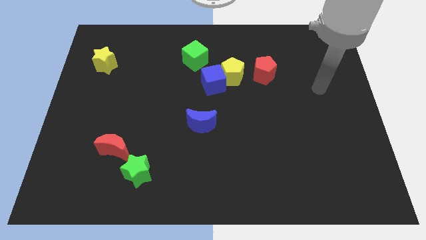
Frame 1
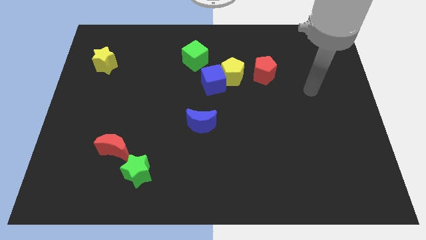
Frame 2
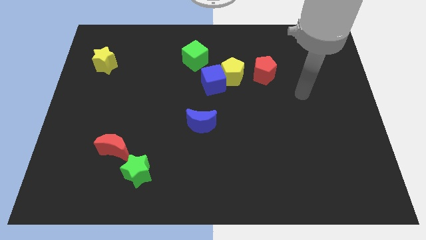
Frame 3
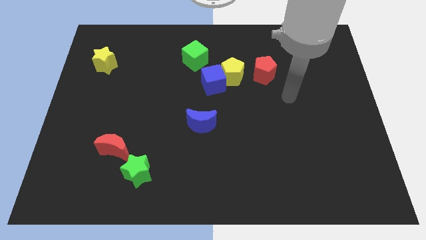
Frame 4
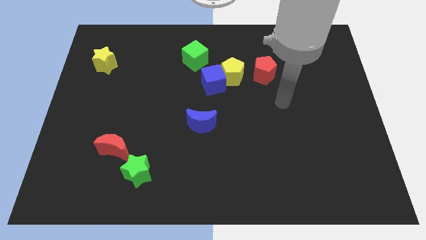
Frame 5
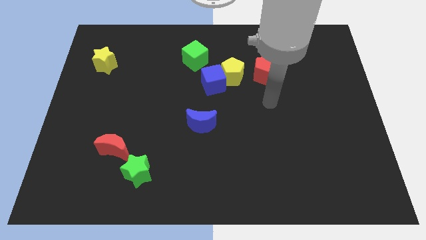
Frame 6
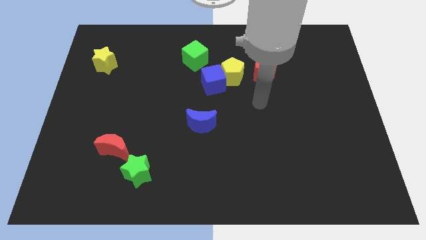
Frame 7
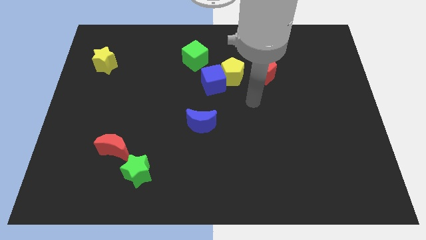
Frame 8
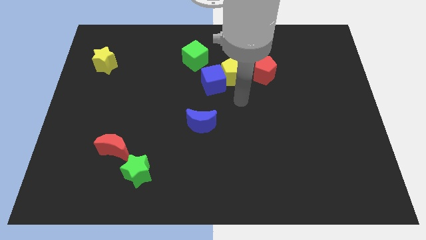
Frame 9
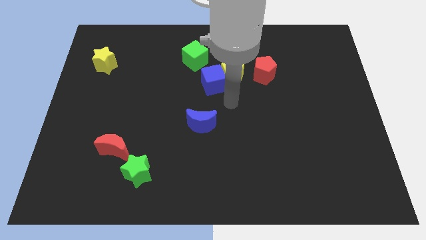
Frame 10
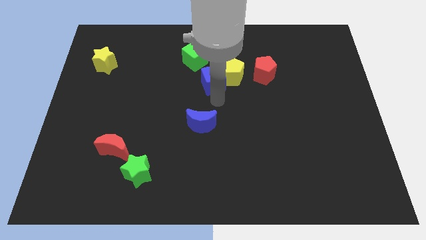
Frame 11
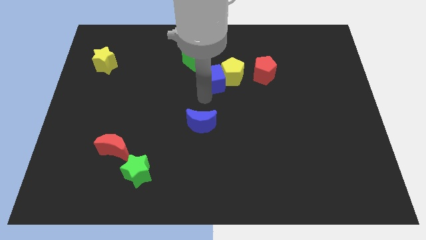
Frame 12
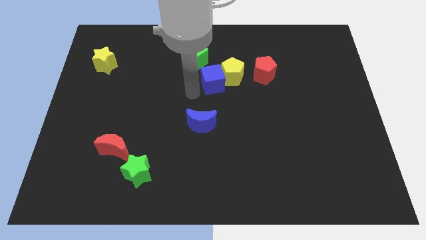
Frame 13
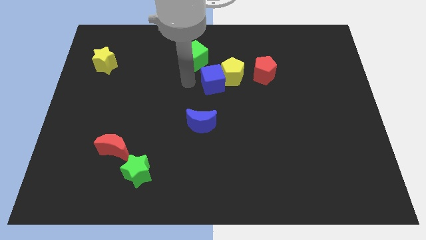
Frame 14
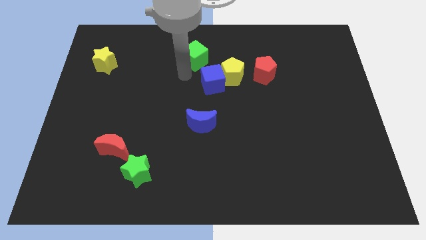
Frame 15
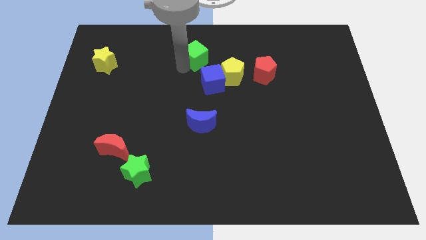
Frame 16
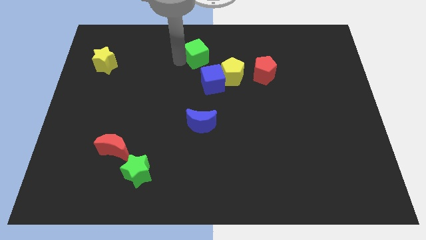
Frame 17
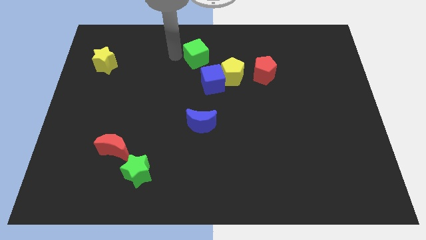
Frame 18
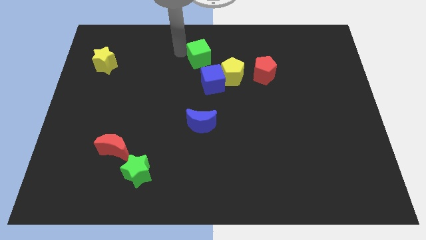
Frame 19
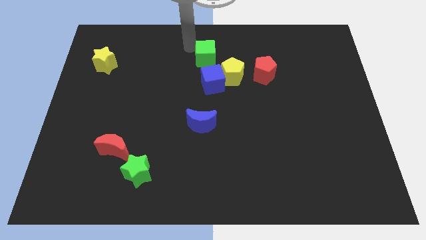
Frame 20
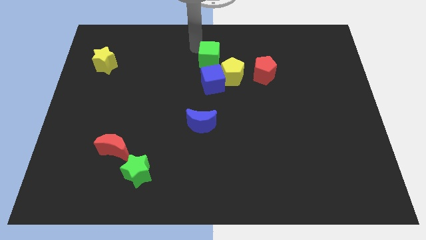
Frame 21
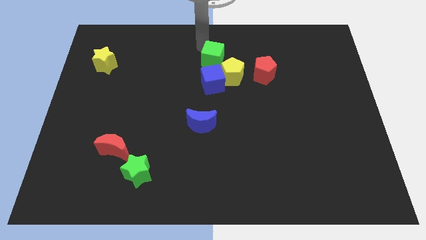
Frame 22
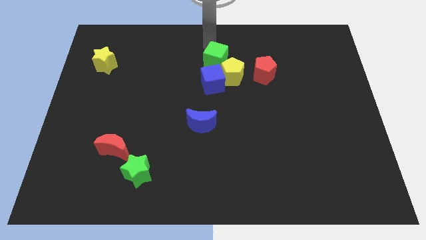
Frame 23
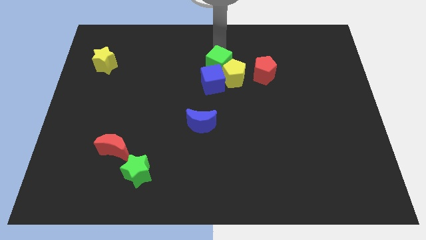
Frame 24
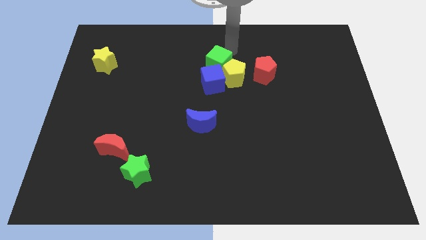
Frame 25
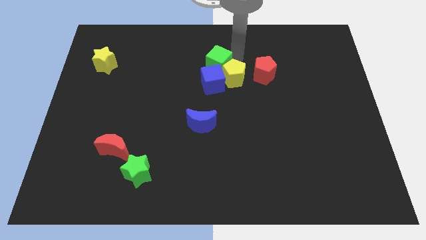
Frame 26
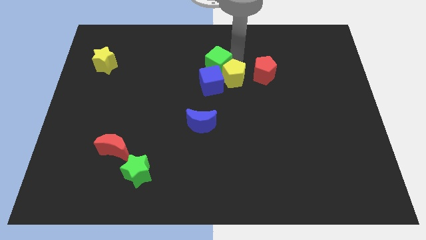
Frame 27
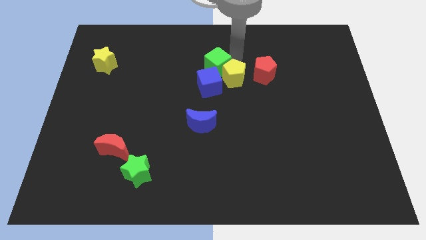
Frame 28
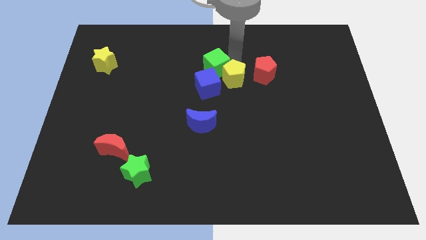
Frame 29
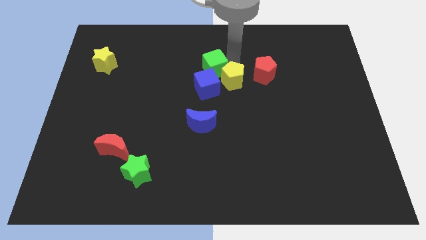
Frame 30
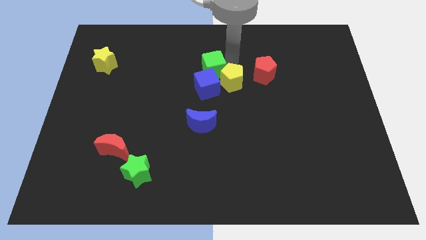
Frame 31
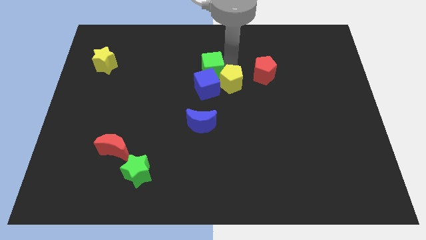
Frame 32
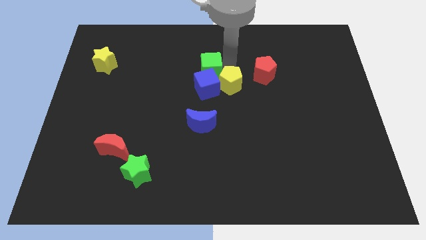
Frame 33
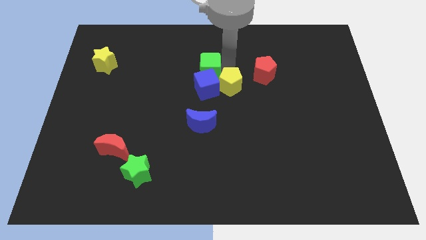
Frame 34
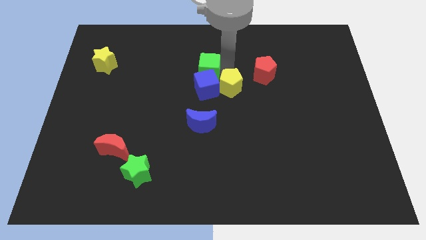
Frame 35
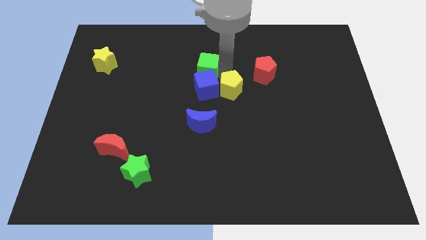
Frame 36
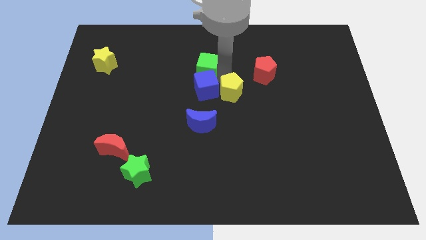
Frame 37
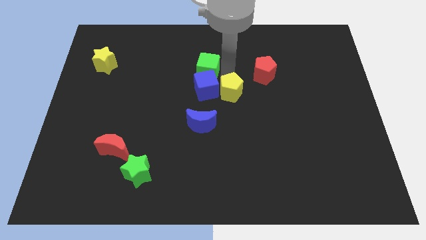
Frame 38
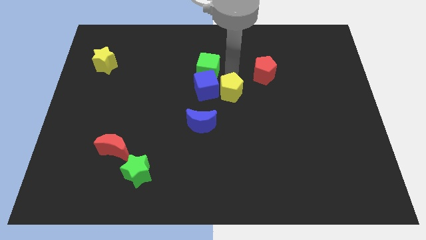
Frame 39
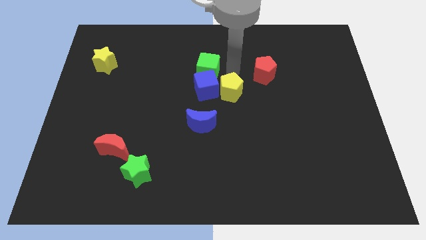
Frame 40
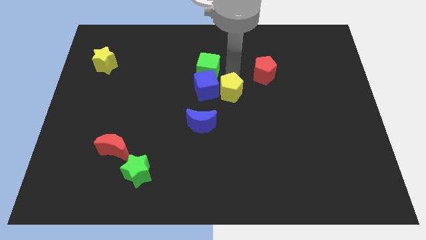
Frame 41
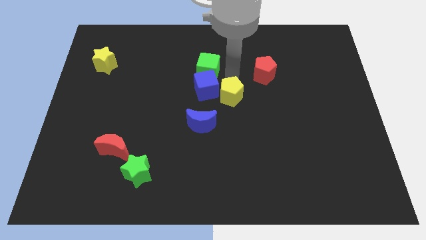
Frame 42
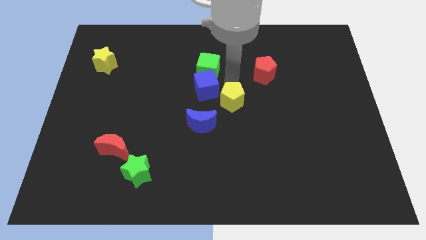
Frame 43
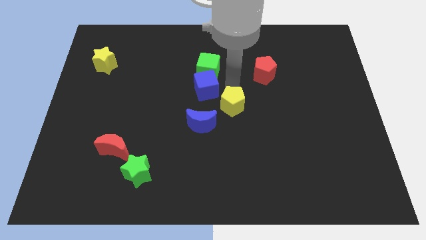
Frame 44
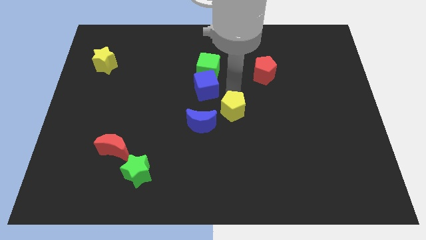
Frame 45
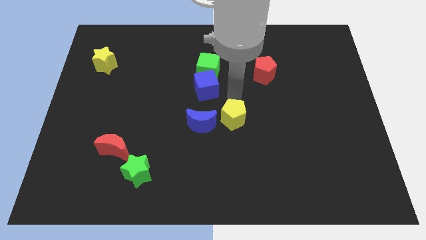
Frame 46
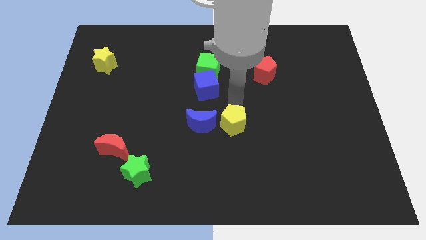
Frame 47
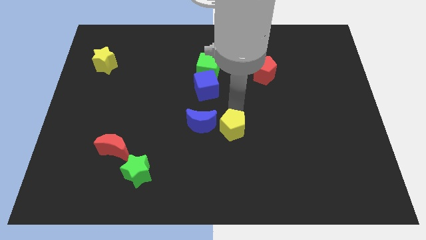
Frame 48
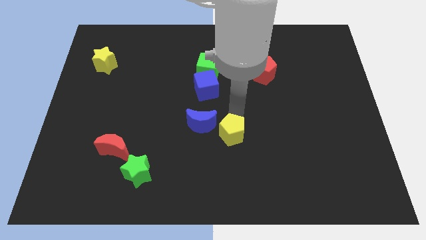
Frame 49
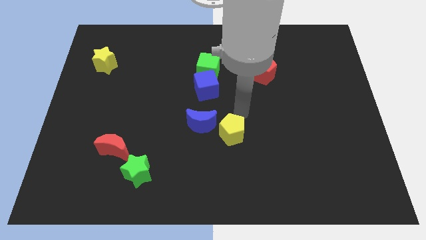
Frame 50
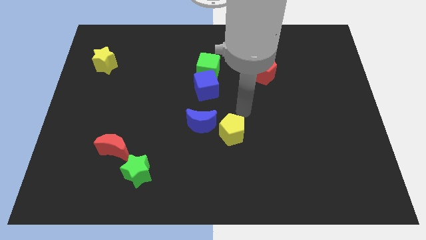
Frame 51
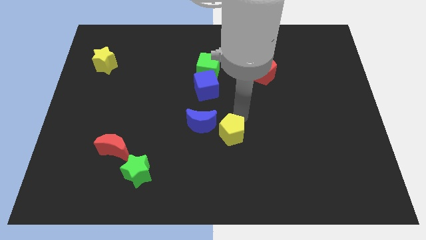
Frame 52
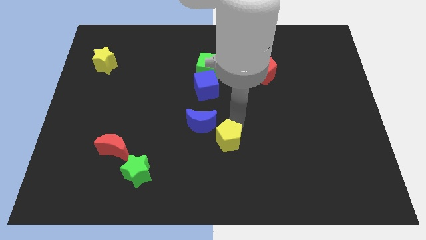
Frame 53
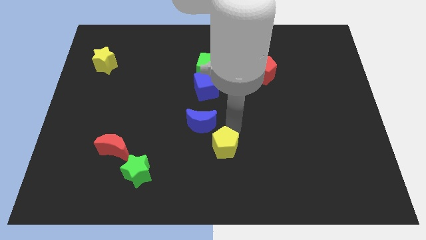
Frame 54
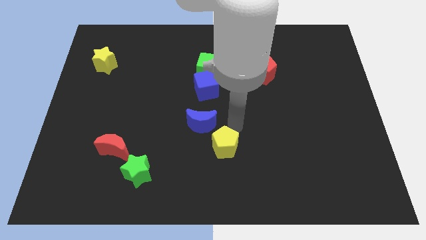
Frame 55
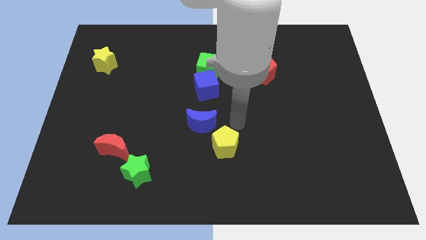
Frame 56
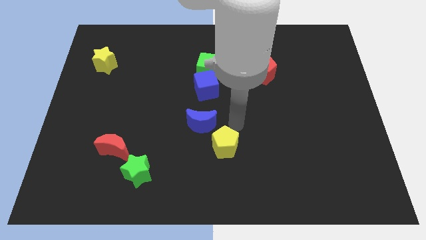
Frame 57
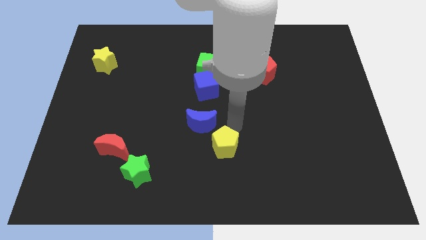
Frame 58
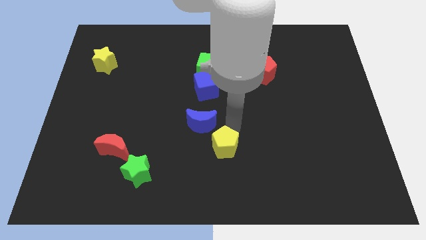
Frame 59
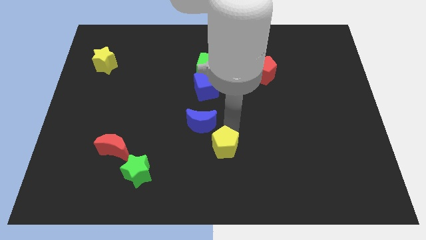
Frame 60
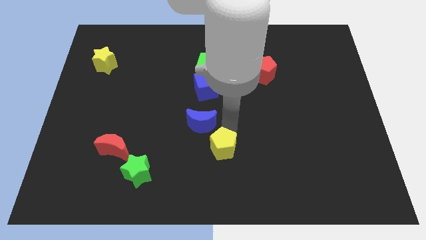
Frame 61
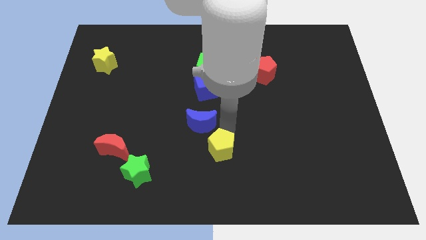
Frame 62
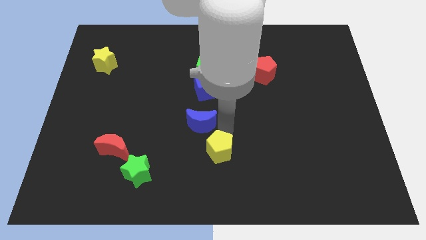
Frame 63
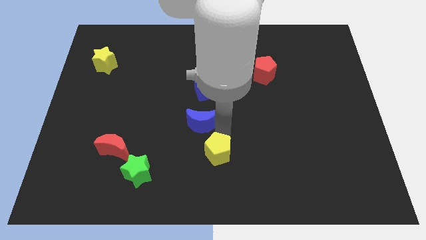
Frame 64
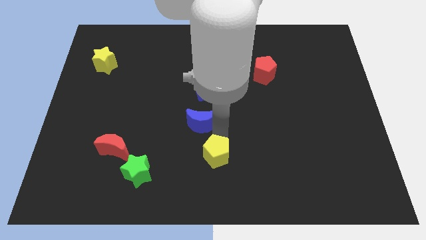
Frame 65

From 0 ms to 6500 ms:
push the yellow pentagon to the bottom side

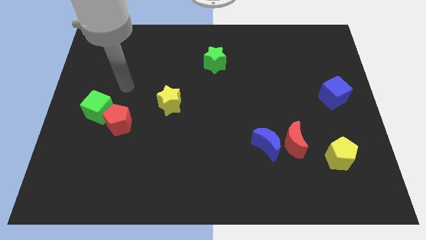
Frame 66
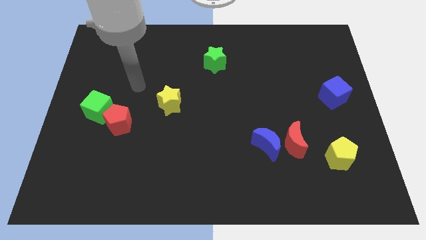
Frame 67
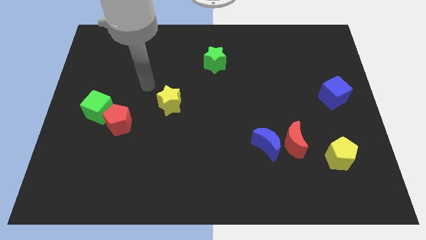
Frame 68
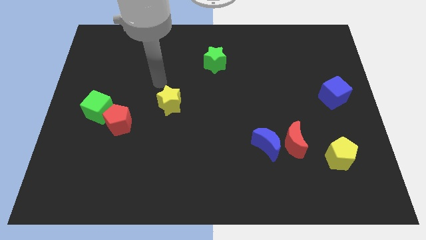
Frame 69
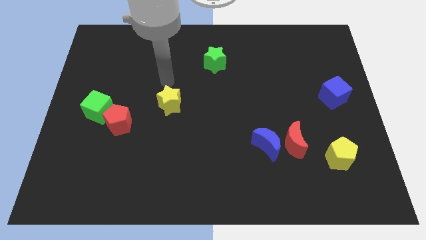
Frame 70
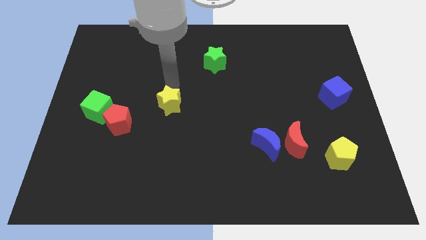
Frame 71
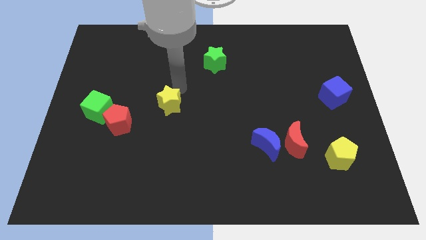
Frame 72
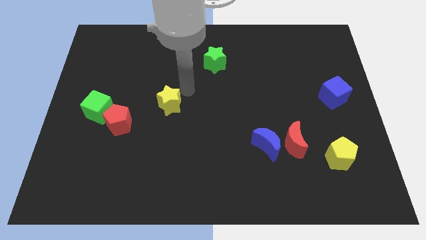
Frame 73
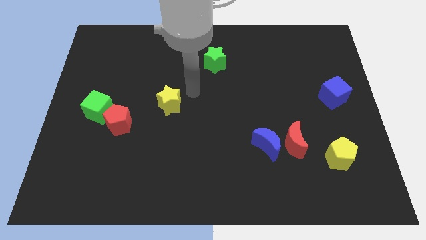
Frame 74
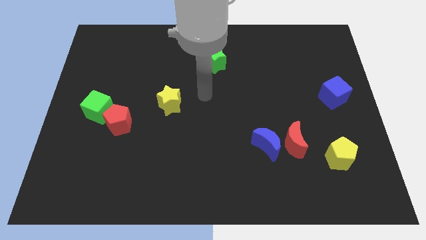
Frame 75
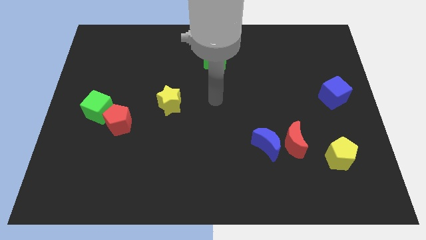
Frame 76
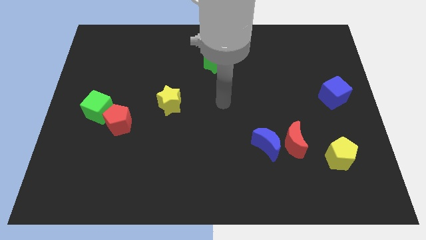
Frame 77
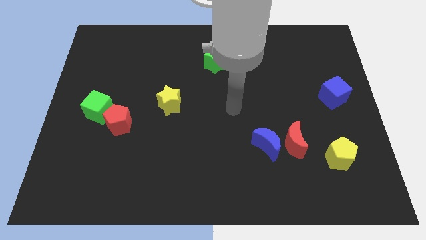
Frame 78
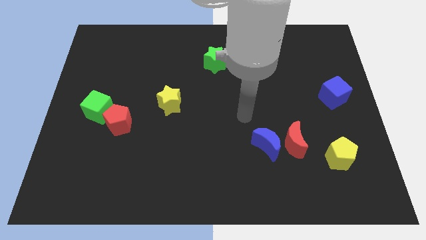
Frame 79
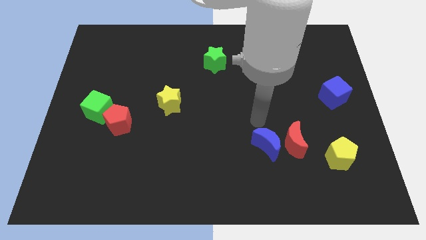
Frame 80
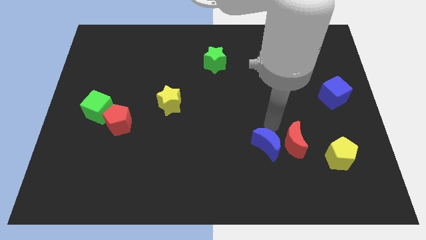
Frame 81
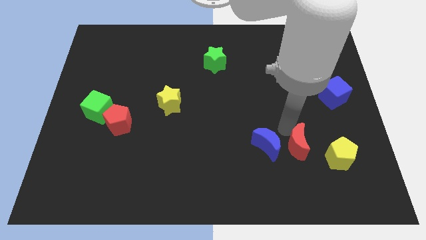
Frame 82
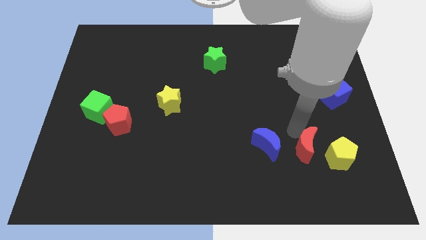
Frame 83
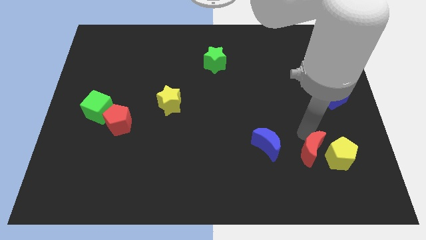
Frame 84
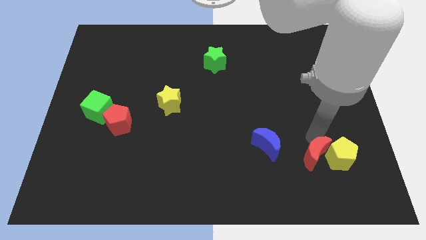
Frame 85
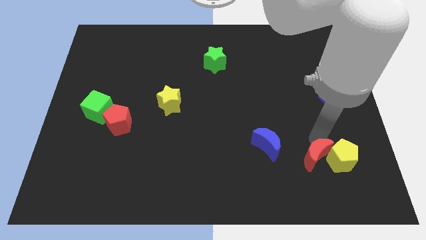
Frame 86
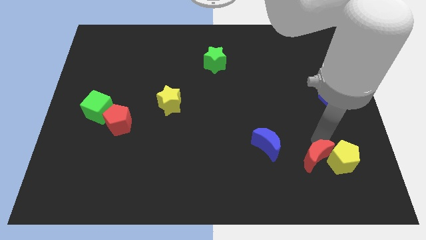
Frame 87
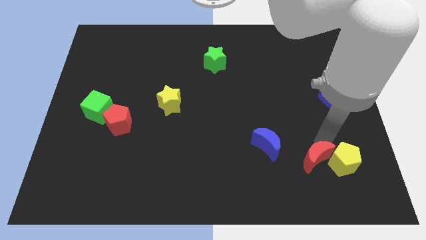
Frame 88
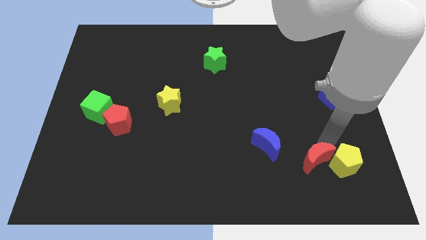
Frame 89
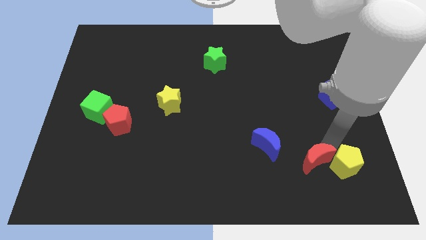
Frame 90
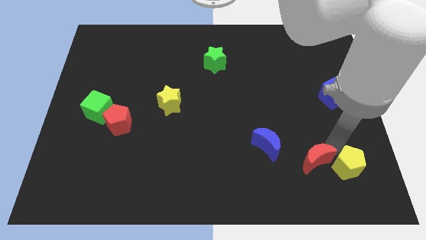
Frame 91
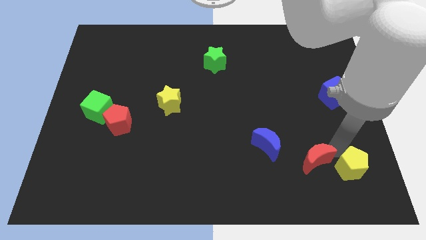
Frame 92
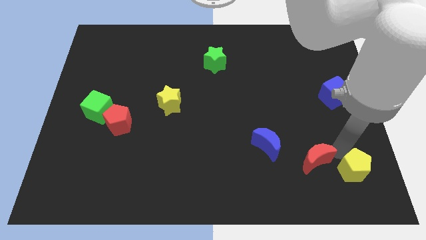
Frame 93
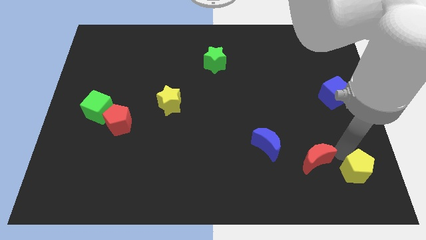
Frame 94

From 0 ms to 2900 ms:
put the yellow pentagon to the bottom right of the board
